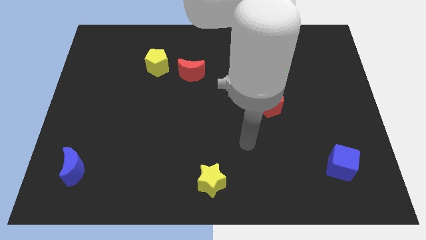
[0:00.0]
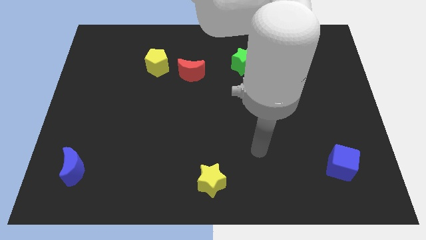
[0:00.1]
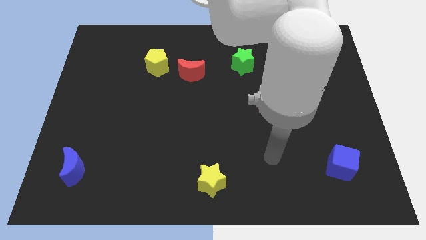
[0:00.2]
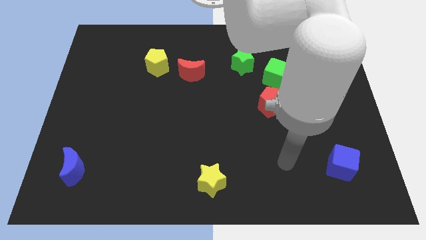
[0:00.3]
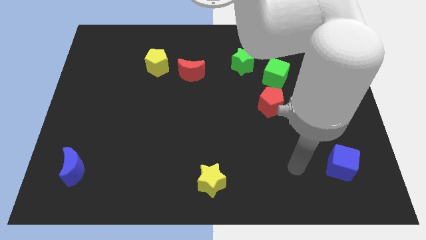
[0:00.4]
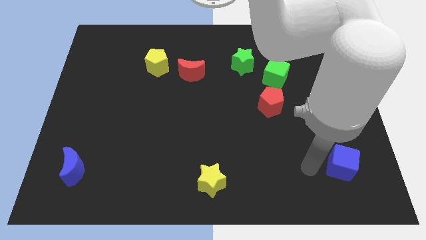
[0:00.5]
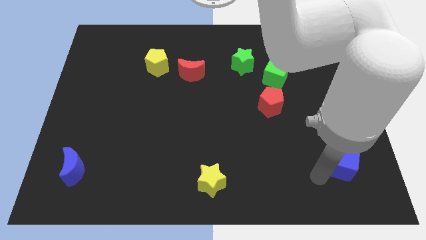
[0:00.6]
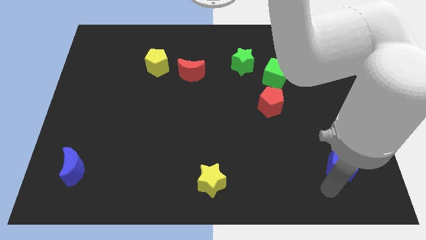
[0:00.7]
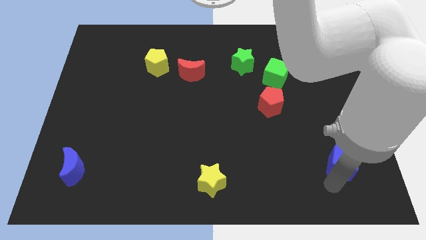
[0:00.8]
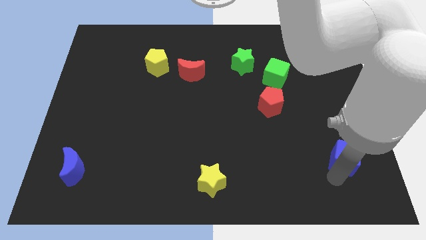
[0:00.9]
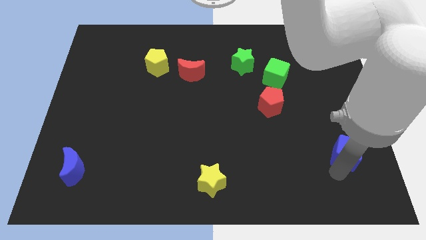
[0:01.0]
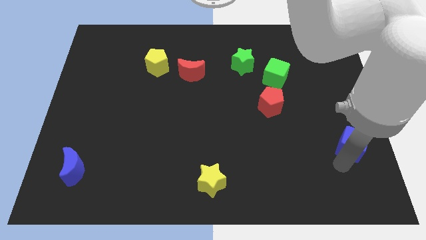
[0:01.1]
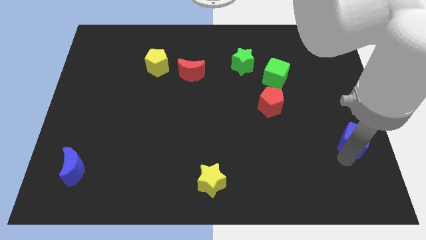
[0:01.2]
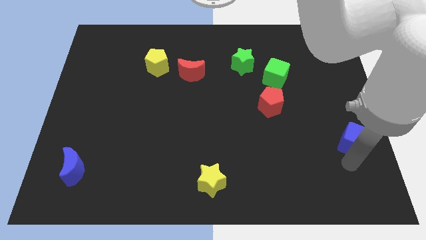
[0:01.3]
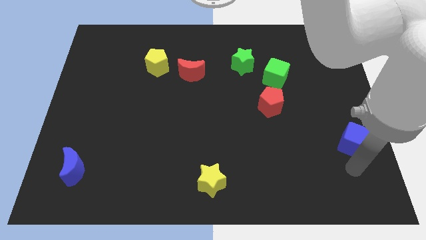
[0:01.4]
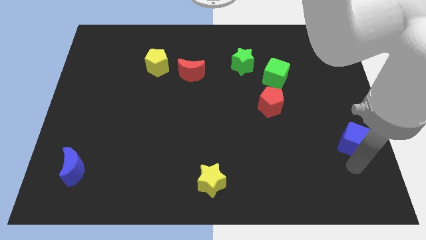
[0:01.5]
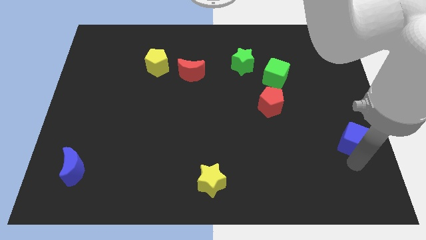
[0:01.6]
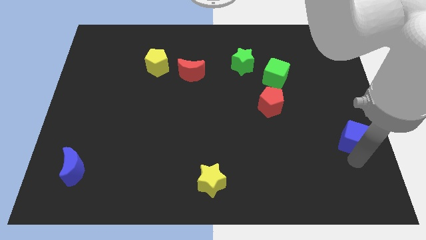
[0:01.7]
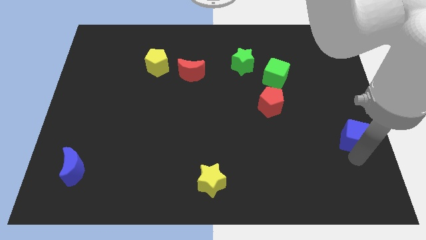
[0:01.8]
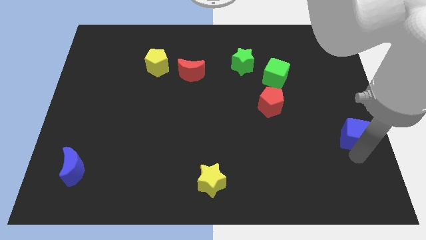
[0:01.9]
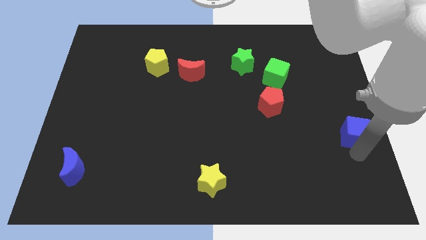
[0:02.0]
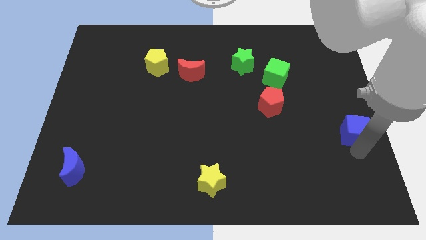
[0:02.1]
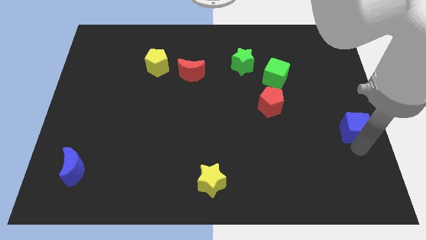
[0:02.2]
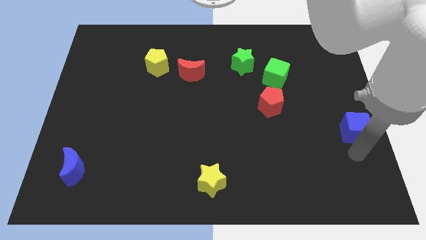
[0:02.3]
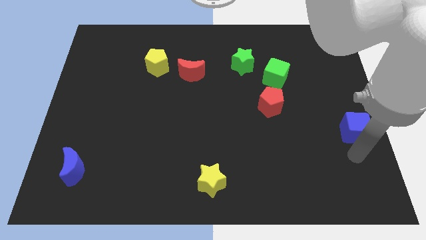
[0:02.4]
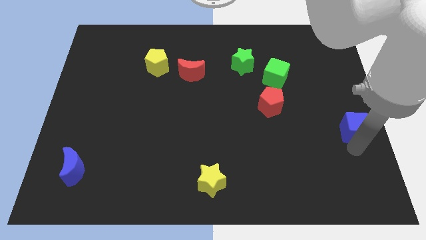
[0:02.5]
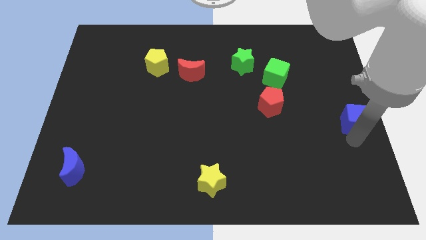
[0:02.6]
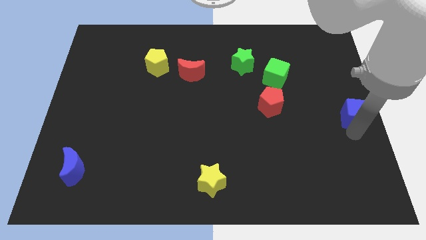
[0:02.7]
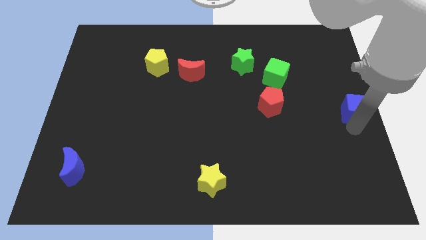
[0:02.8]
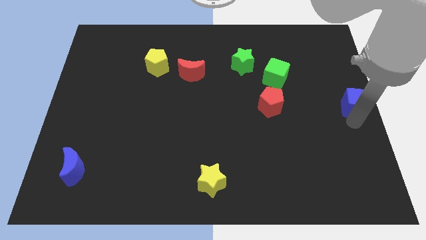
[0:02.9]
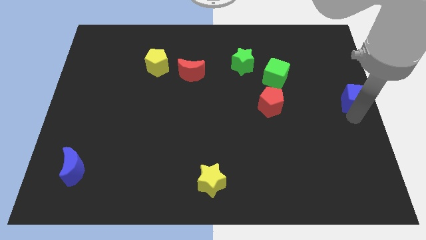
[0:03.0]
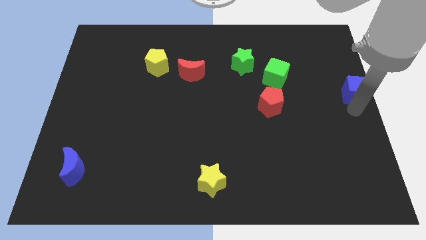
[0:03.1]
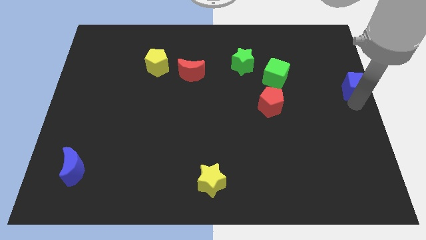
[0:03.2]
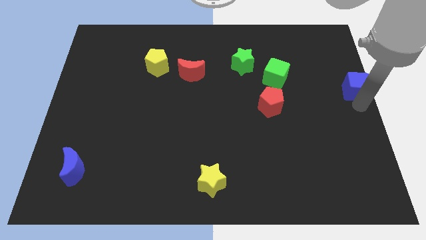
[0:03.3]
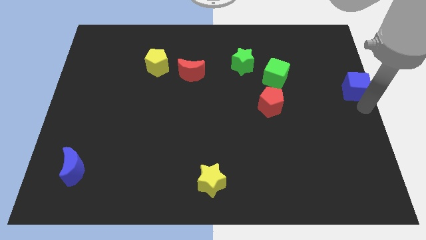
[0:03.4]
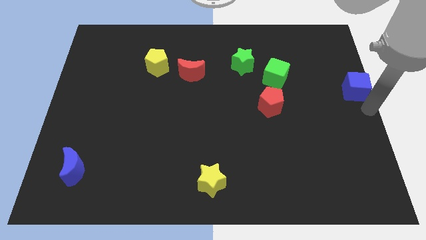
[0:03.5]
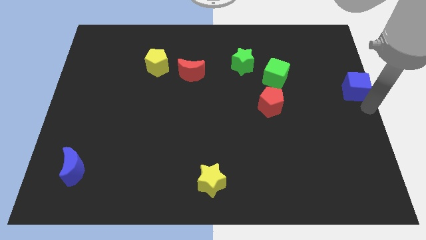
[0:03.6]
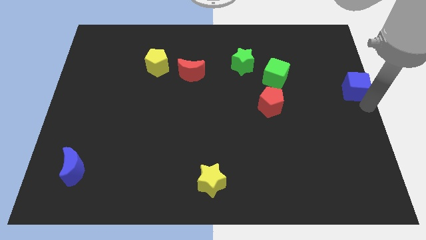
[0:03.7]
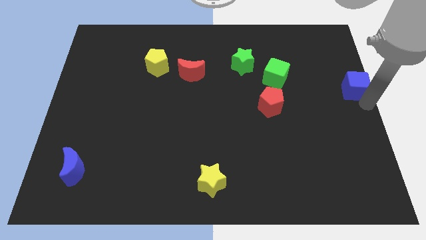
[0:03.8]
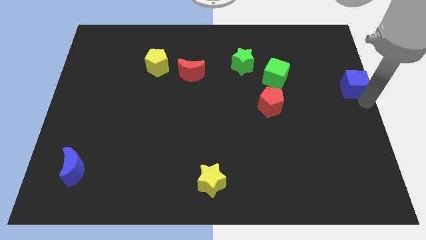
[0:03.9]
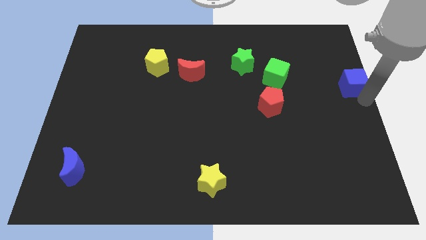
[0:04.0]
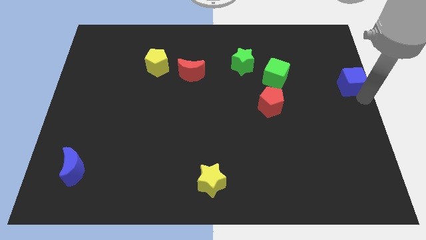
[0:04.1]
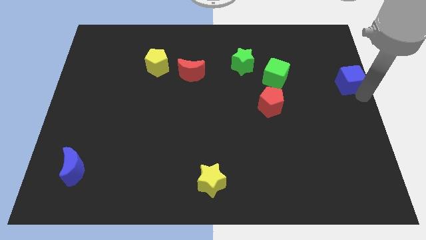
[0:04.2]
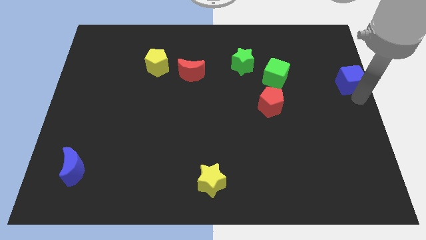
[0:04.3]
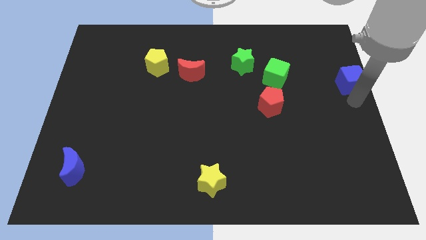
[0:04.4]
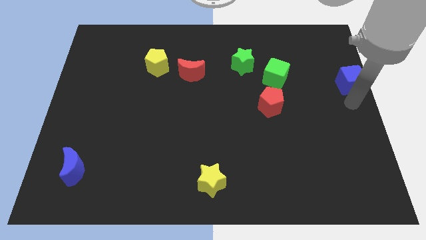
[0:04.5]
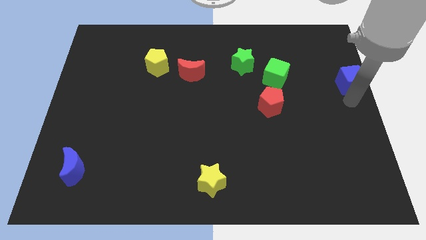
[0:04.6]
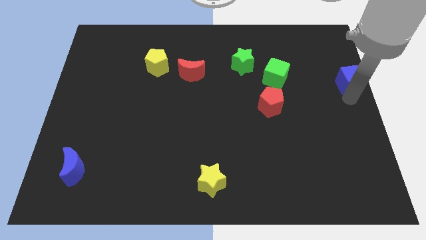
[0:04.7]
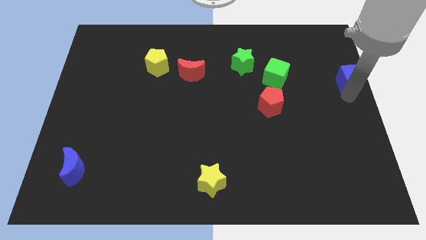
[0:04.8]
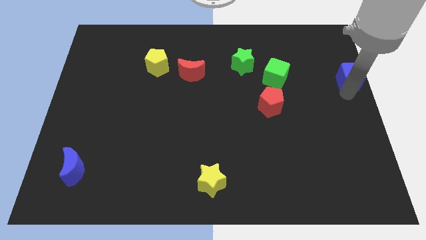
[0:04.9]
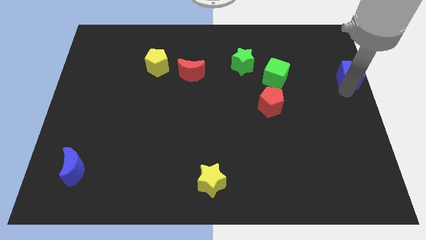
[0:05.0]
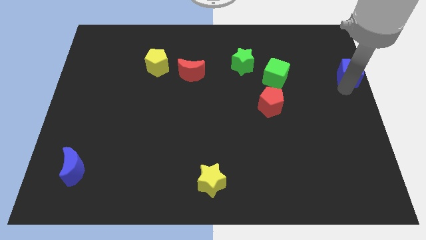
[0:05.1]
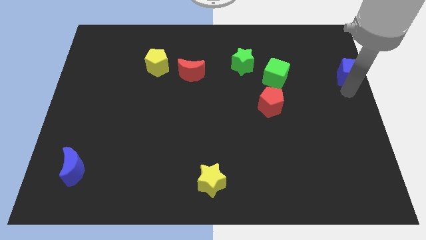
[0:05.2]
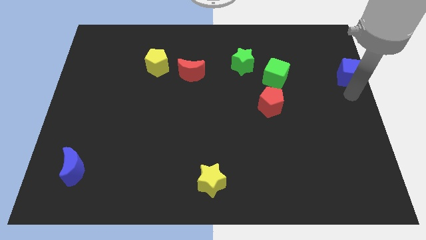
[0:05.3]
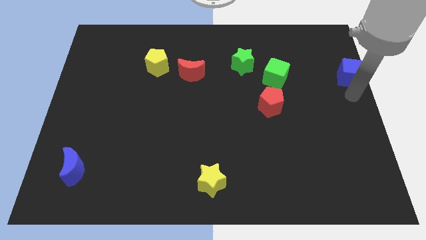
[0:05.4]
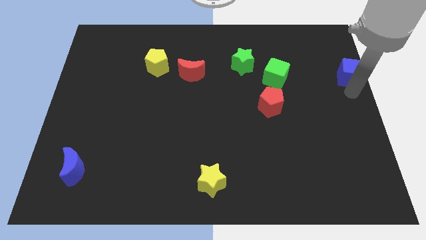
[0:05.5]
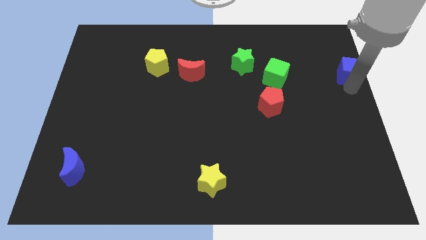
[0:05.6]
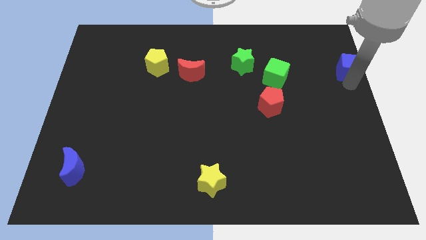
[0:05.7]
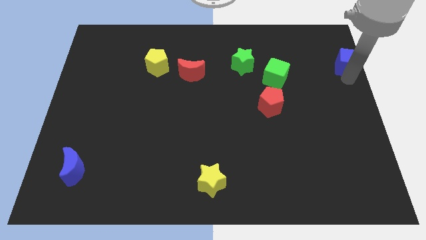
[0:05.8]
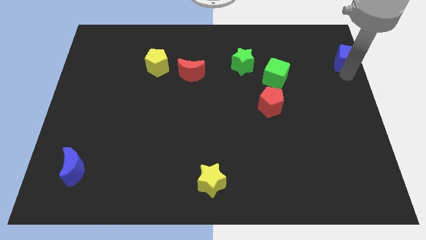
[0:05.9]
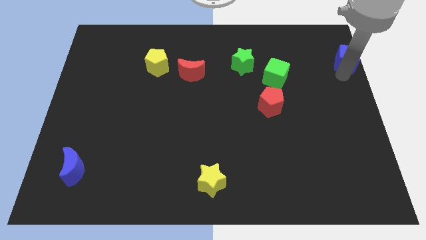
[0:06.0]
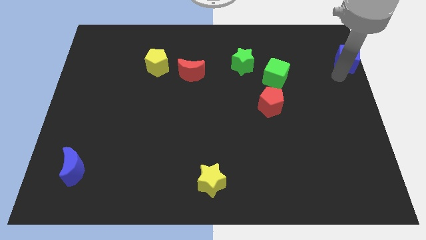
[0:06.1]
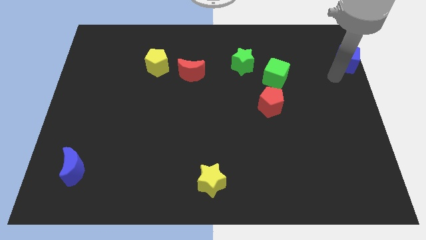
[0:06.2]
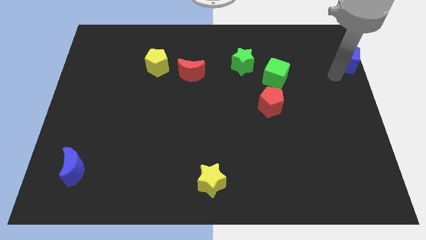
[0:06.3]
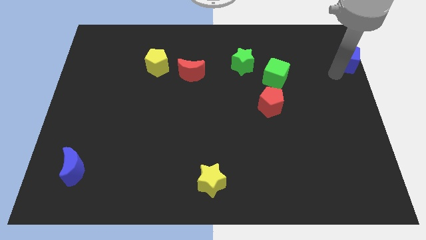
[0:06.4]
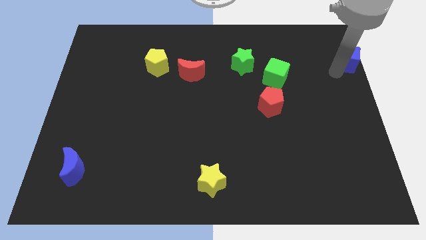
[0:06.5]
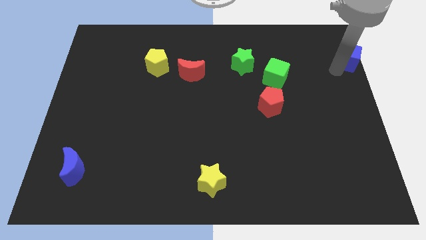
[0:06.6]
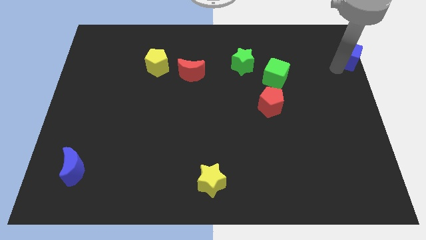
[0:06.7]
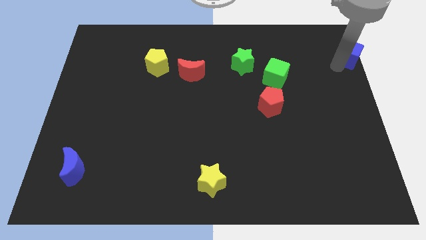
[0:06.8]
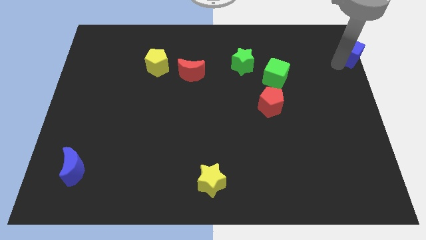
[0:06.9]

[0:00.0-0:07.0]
push the blue cube to the upper right corner
